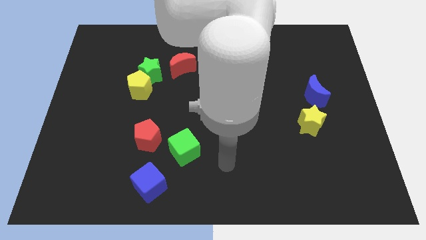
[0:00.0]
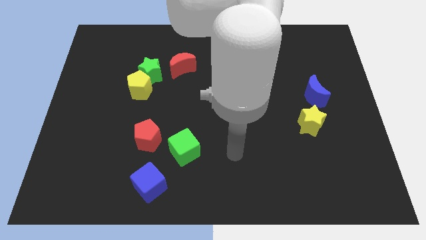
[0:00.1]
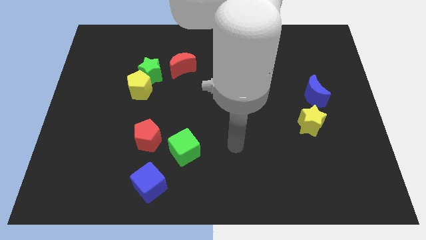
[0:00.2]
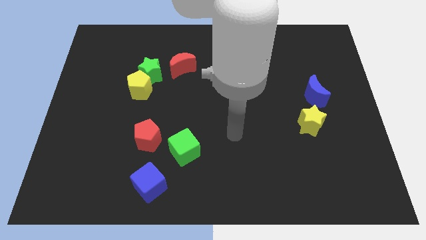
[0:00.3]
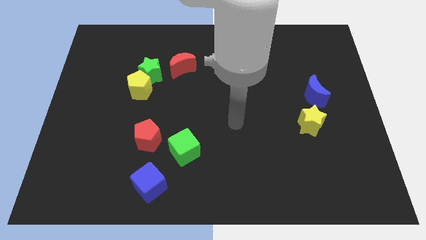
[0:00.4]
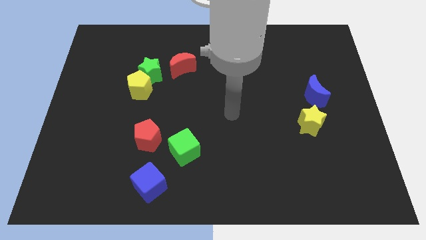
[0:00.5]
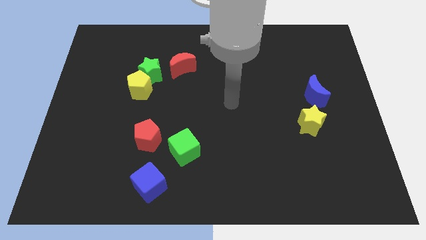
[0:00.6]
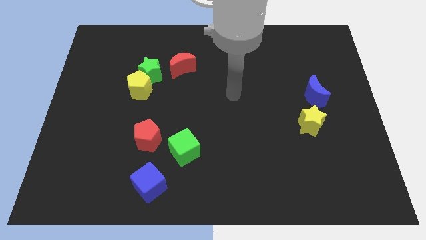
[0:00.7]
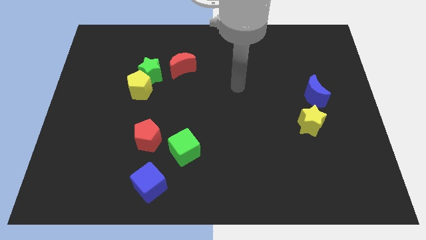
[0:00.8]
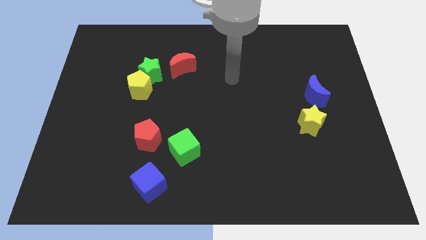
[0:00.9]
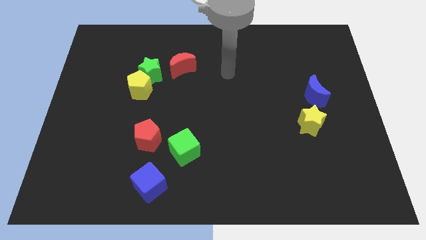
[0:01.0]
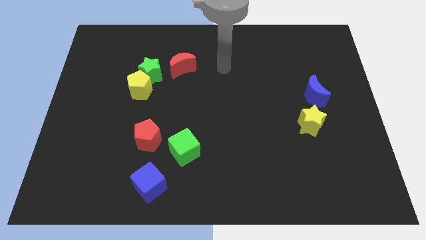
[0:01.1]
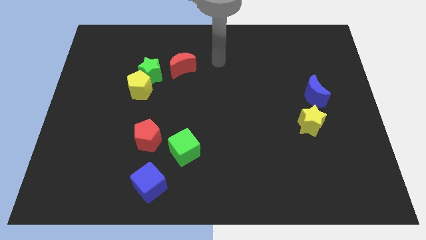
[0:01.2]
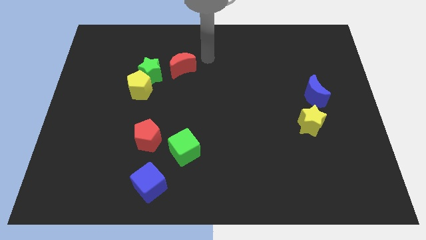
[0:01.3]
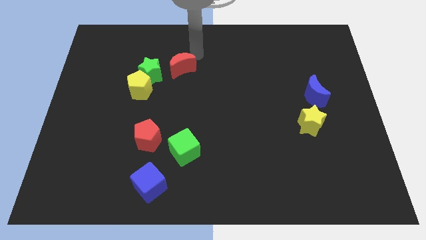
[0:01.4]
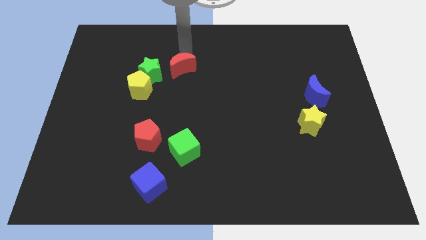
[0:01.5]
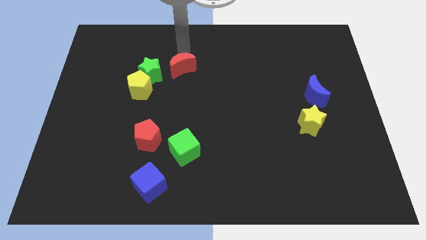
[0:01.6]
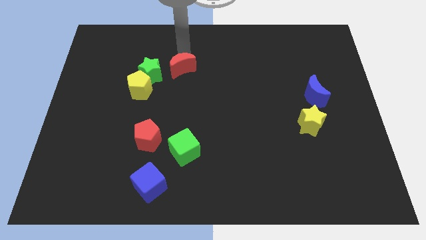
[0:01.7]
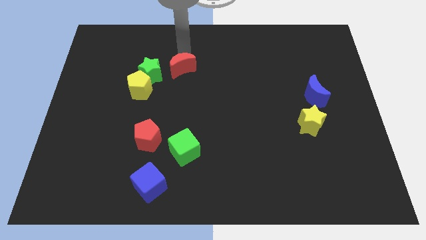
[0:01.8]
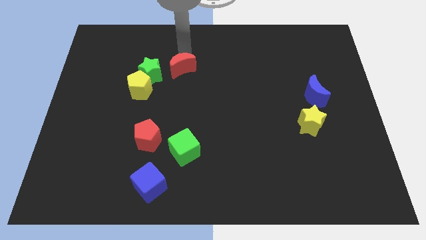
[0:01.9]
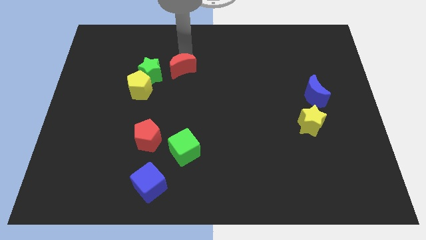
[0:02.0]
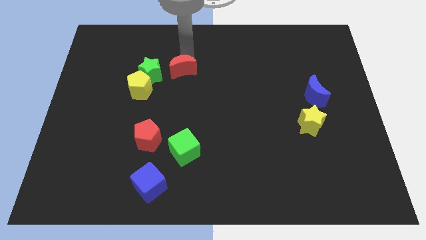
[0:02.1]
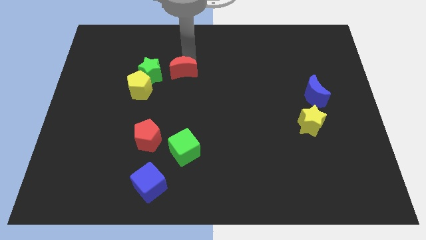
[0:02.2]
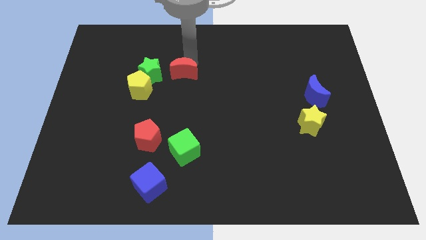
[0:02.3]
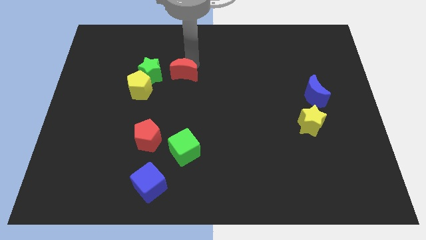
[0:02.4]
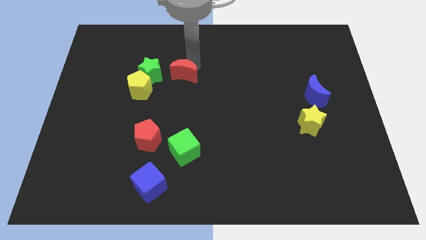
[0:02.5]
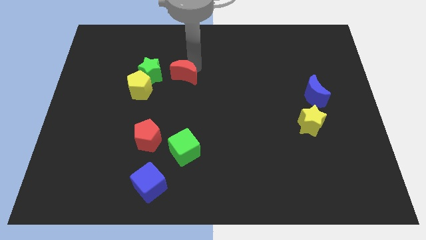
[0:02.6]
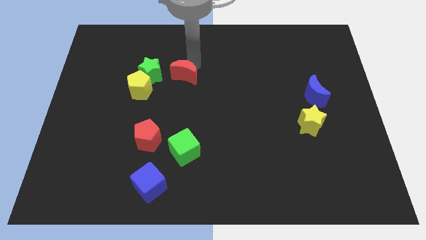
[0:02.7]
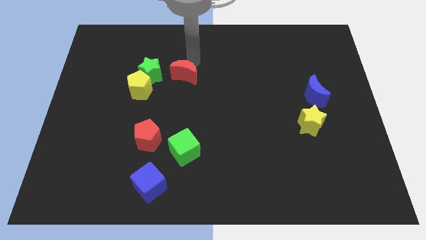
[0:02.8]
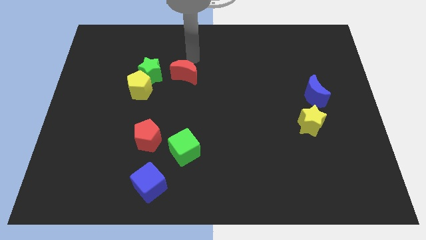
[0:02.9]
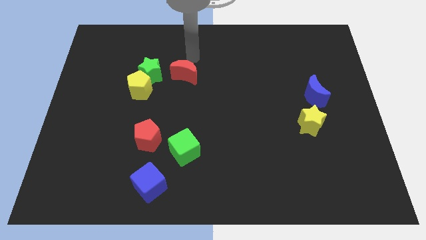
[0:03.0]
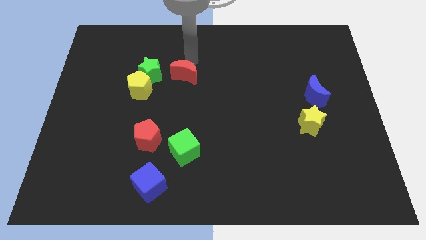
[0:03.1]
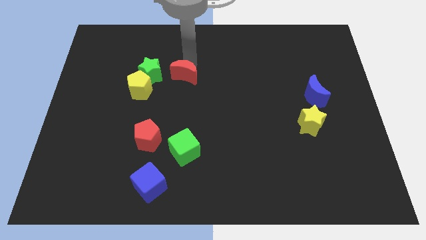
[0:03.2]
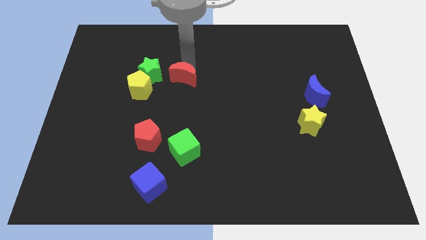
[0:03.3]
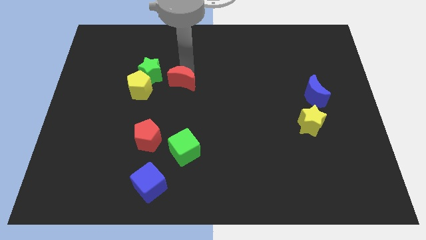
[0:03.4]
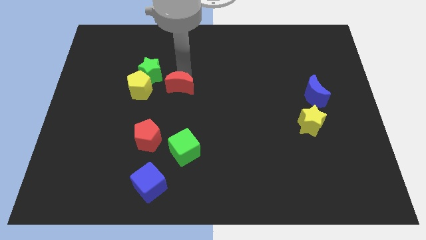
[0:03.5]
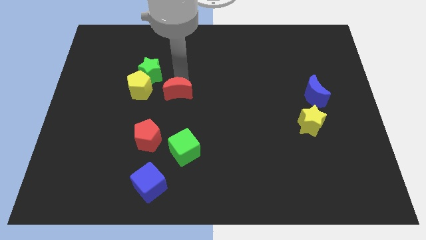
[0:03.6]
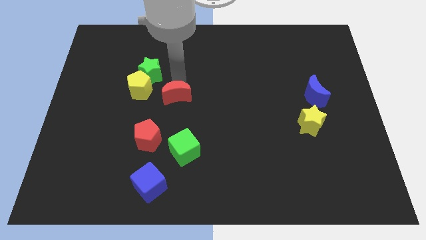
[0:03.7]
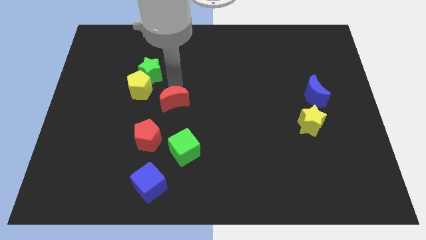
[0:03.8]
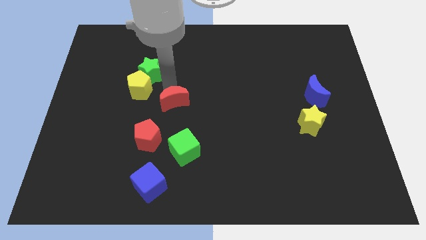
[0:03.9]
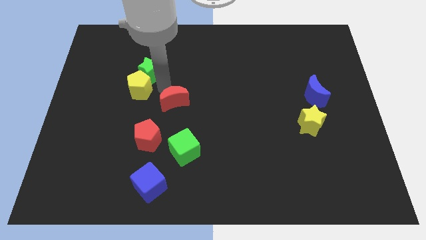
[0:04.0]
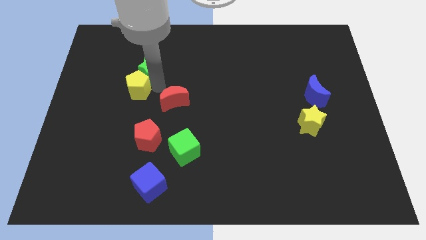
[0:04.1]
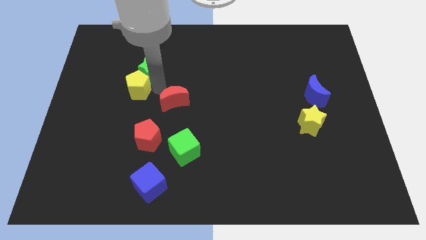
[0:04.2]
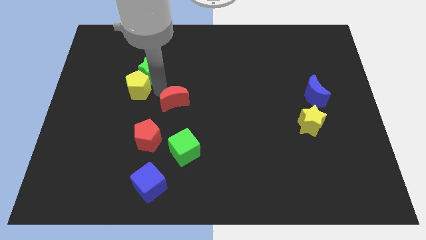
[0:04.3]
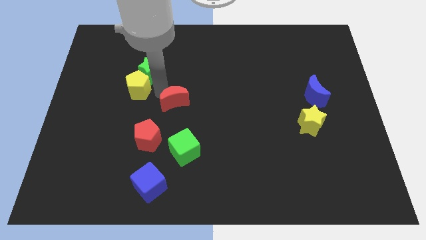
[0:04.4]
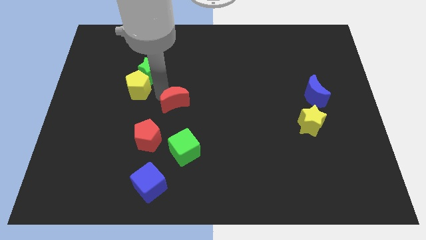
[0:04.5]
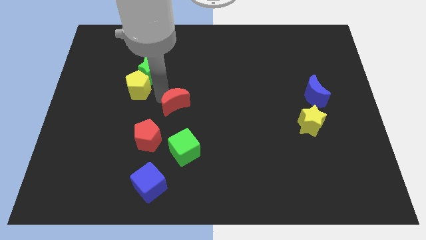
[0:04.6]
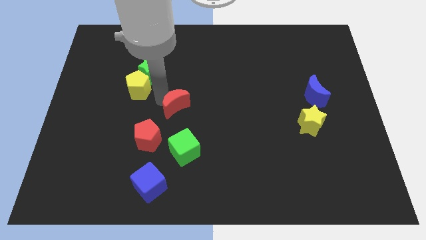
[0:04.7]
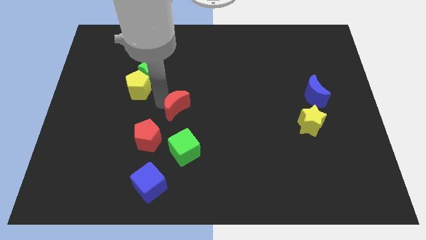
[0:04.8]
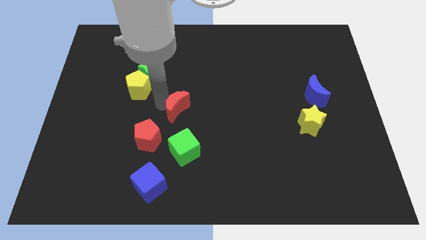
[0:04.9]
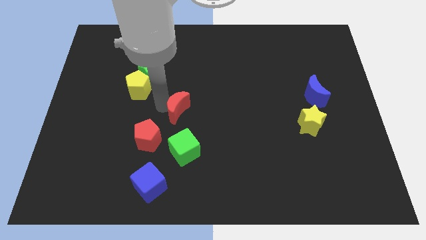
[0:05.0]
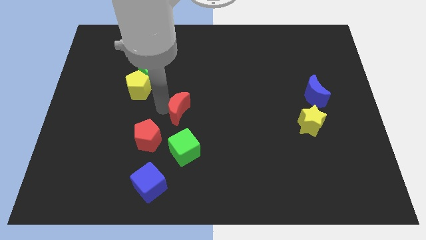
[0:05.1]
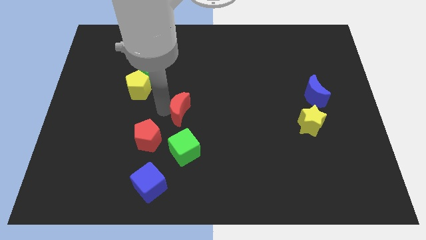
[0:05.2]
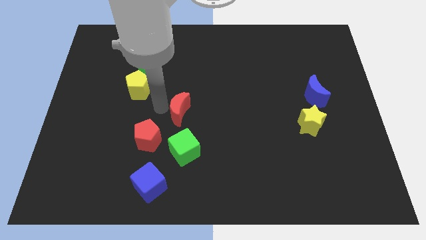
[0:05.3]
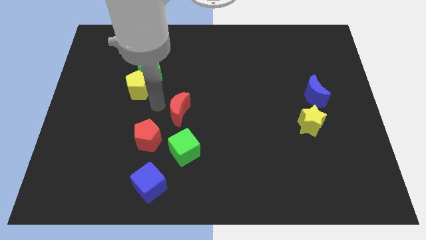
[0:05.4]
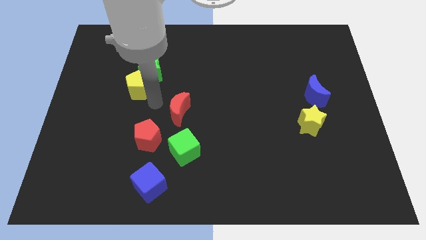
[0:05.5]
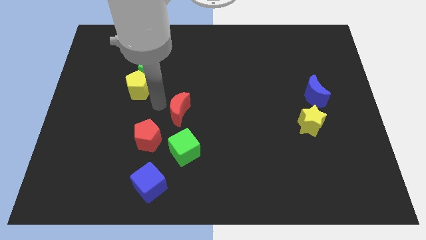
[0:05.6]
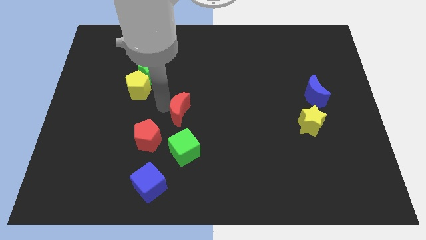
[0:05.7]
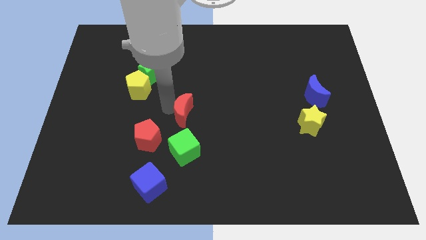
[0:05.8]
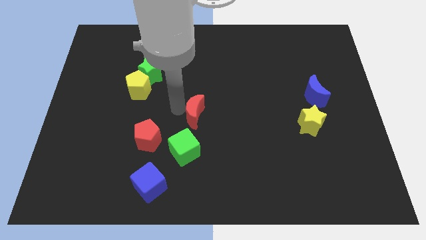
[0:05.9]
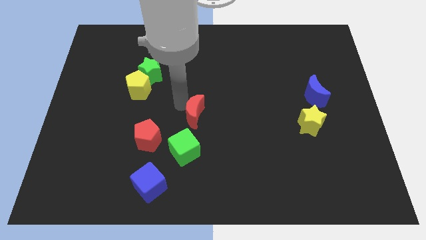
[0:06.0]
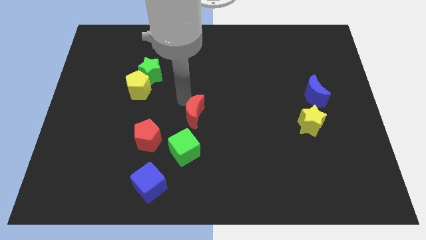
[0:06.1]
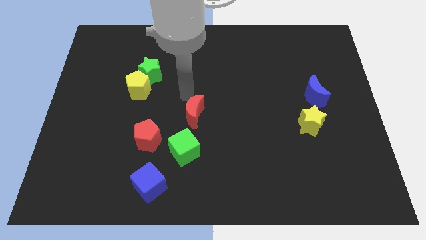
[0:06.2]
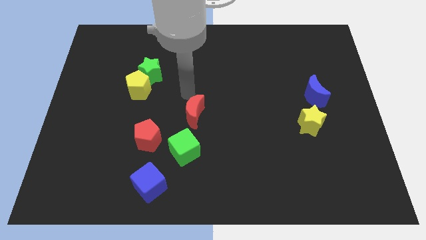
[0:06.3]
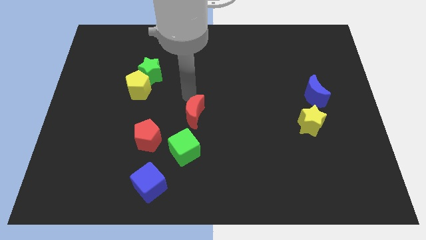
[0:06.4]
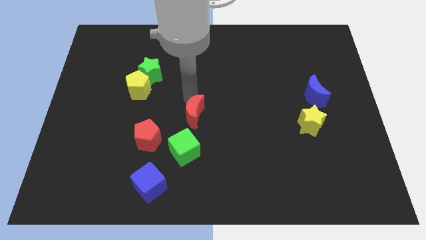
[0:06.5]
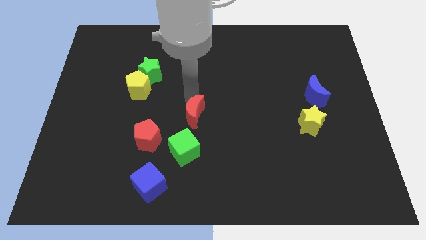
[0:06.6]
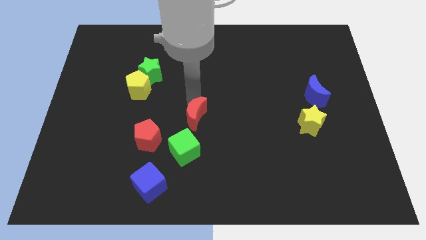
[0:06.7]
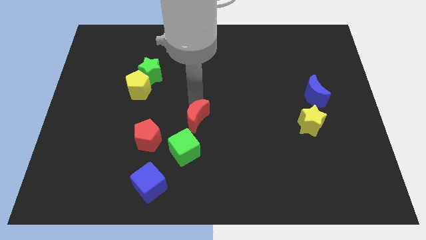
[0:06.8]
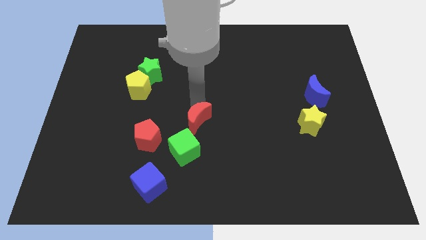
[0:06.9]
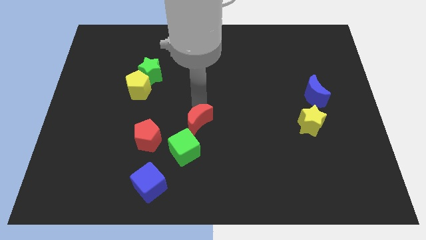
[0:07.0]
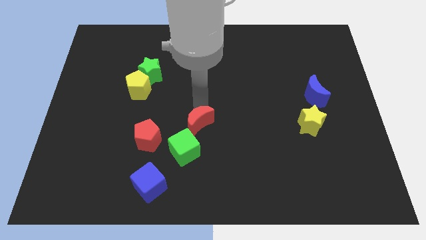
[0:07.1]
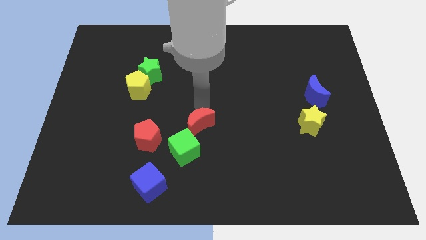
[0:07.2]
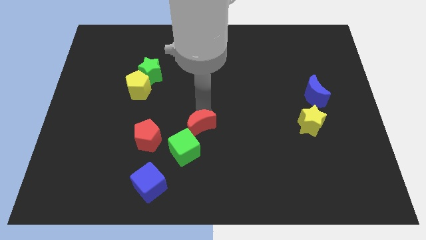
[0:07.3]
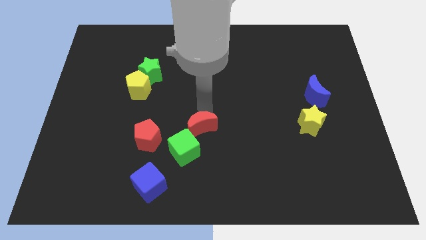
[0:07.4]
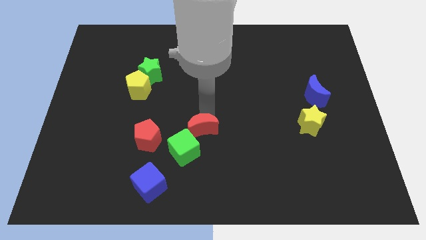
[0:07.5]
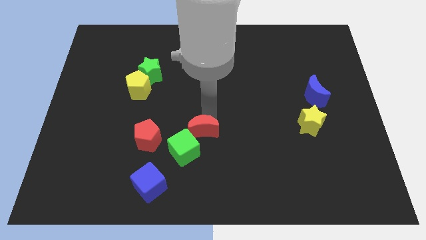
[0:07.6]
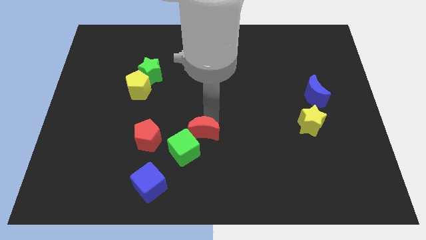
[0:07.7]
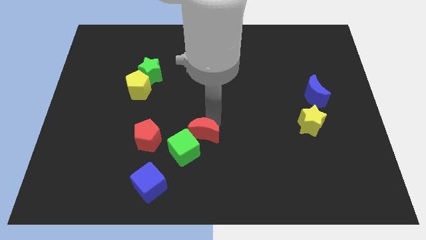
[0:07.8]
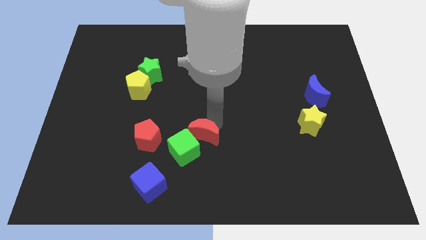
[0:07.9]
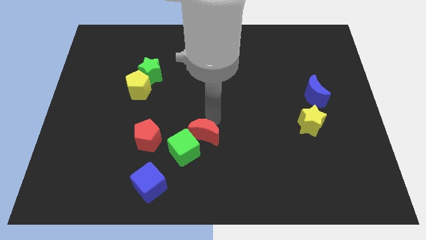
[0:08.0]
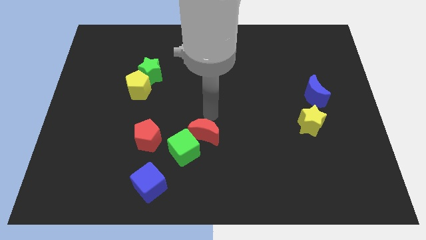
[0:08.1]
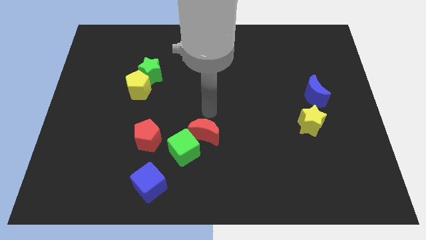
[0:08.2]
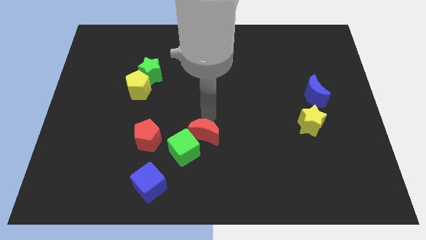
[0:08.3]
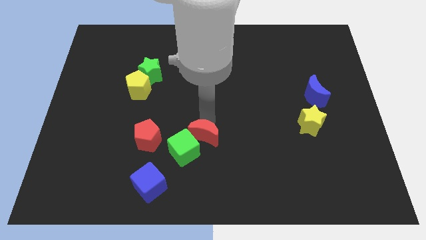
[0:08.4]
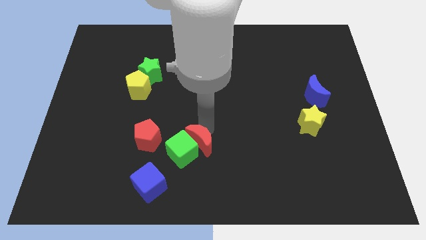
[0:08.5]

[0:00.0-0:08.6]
move the red moon down
